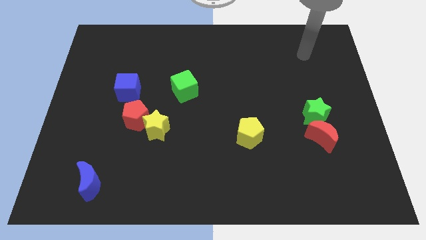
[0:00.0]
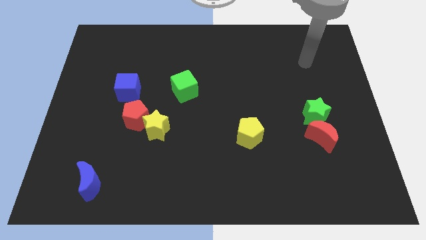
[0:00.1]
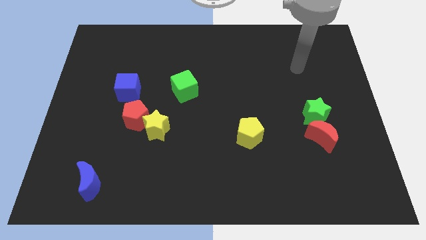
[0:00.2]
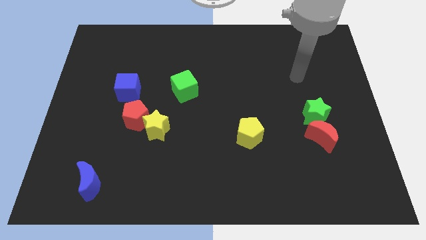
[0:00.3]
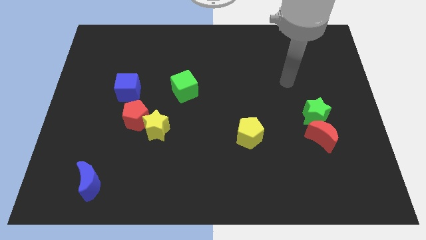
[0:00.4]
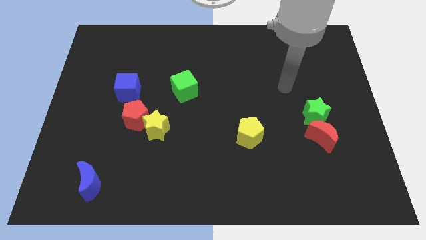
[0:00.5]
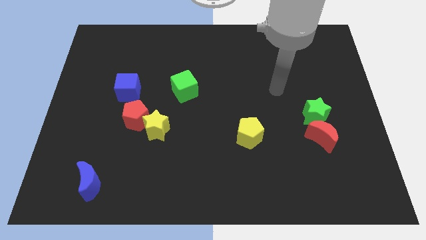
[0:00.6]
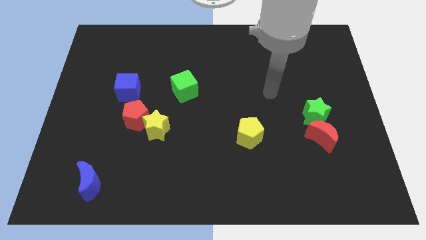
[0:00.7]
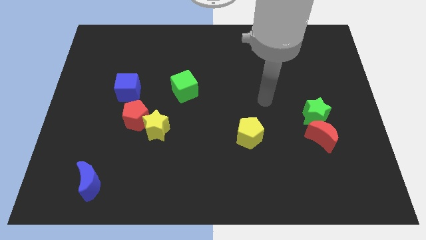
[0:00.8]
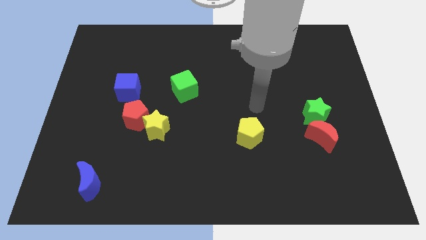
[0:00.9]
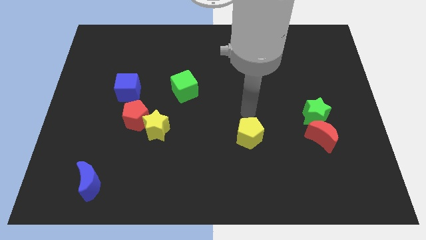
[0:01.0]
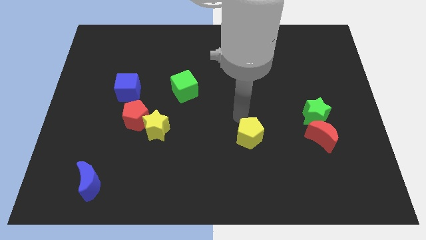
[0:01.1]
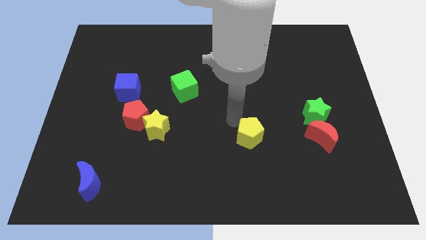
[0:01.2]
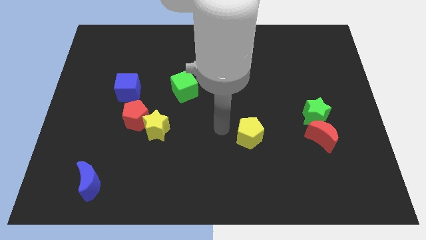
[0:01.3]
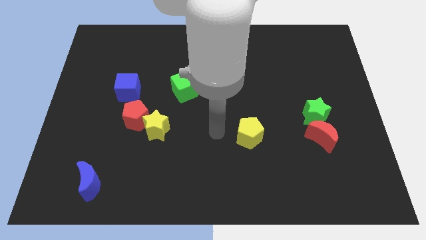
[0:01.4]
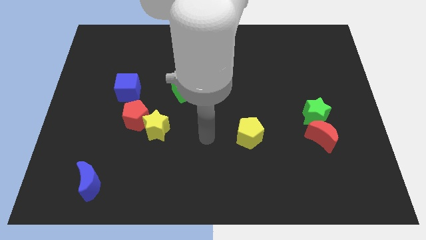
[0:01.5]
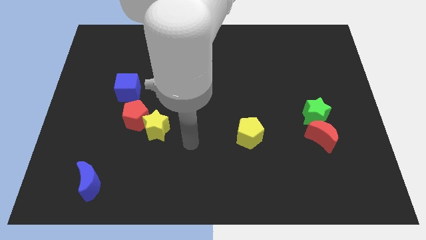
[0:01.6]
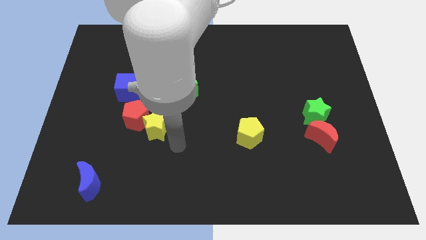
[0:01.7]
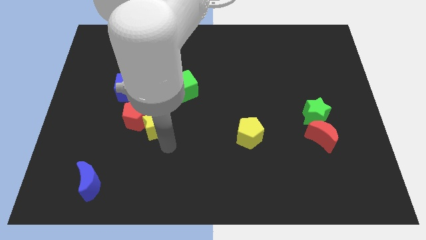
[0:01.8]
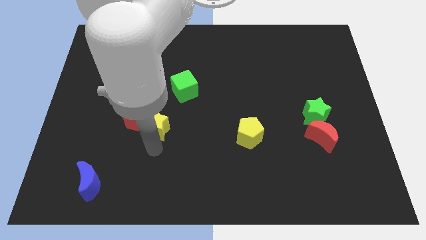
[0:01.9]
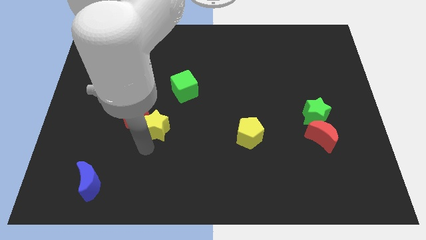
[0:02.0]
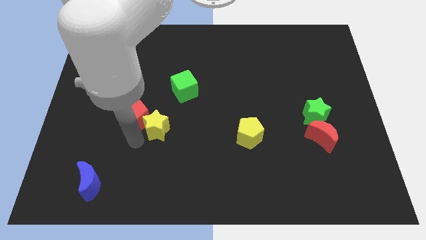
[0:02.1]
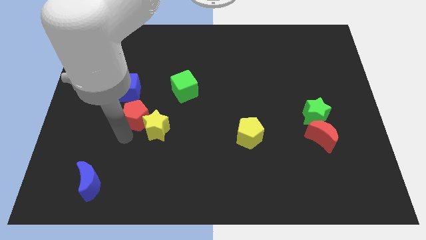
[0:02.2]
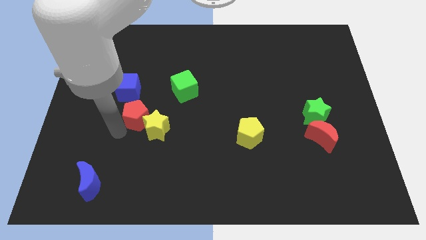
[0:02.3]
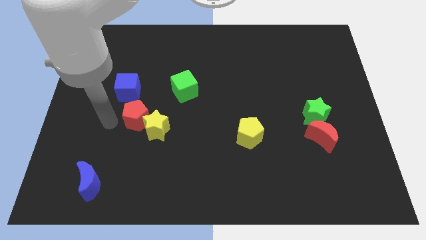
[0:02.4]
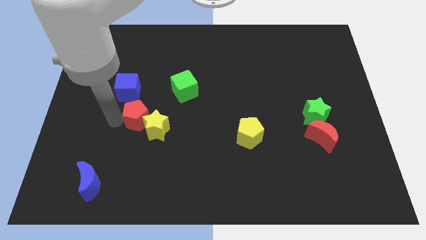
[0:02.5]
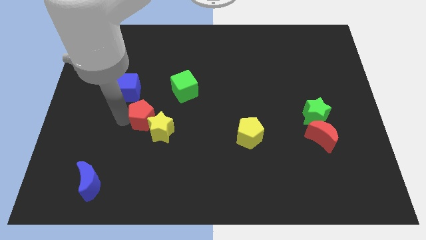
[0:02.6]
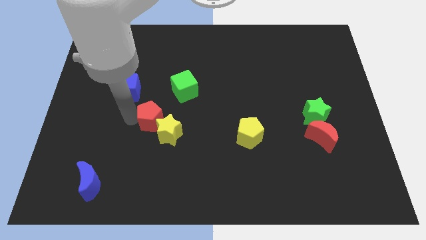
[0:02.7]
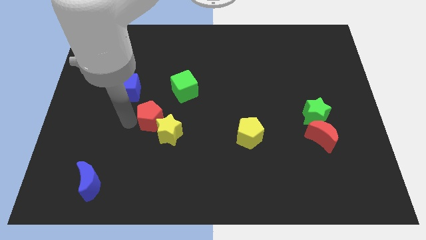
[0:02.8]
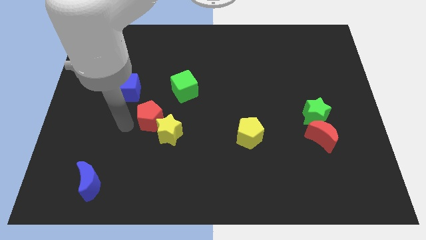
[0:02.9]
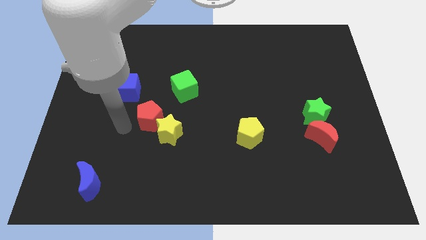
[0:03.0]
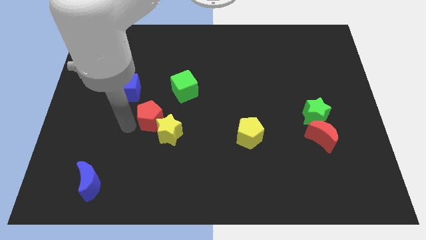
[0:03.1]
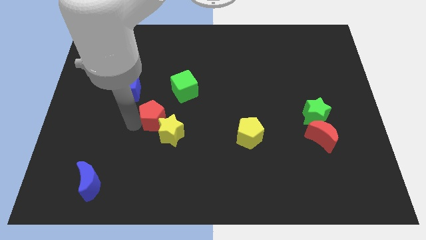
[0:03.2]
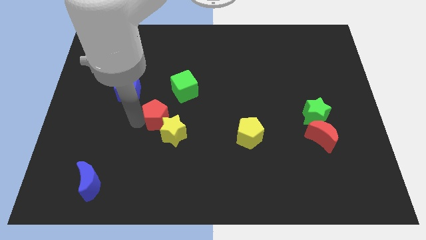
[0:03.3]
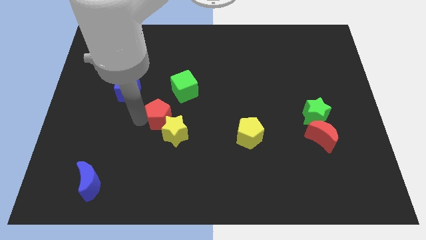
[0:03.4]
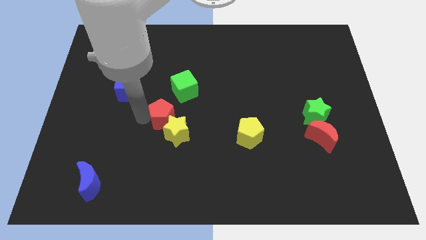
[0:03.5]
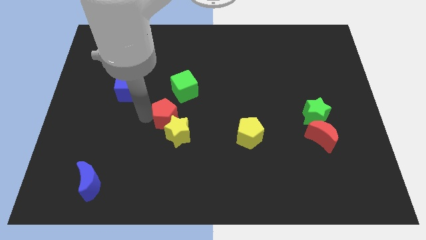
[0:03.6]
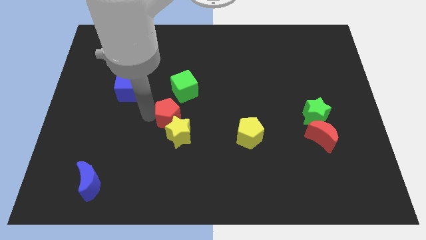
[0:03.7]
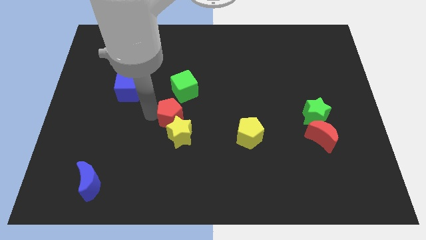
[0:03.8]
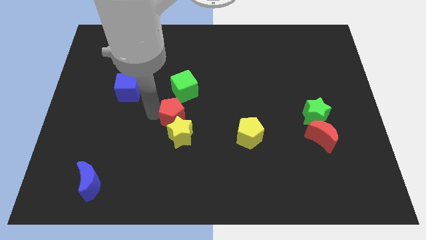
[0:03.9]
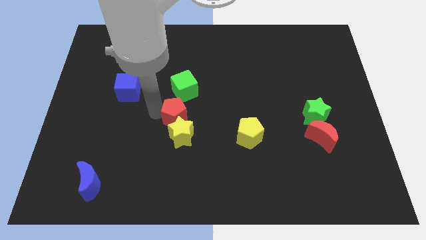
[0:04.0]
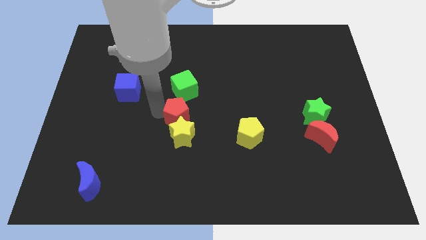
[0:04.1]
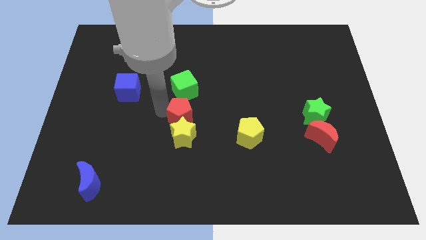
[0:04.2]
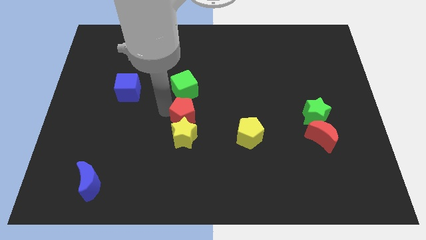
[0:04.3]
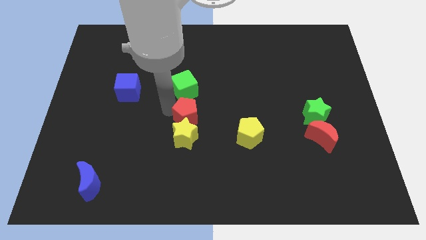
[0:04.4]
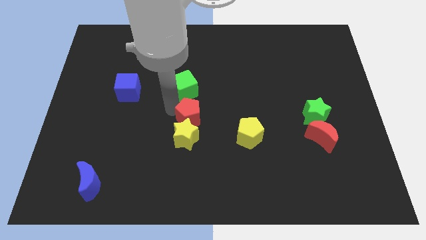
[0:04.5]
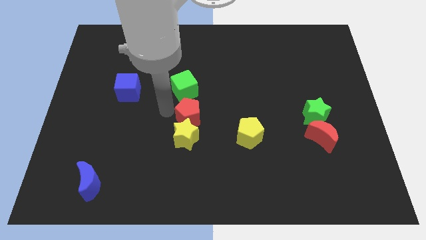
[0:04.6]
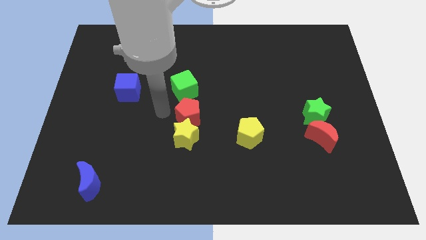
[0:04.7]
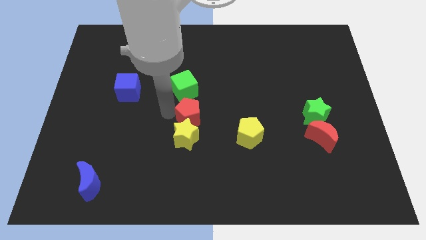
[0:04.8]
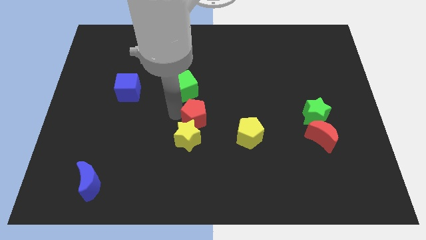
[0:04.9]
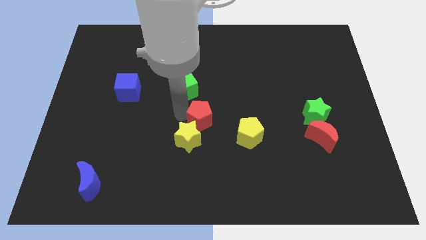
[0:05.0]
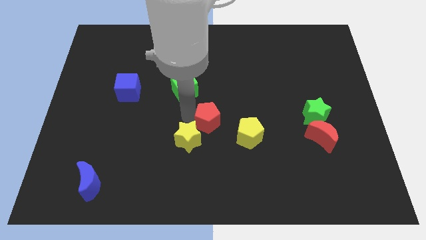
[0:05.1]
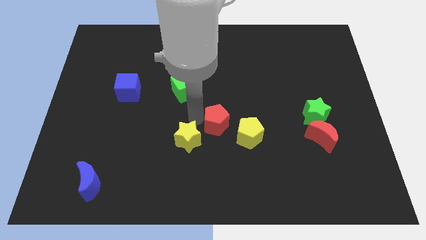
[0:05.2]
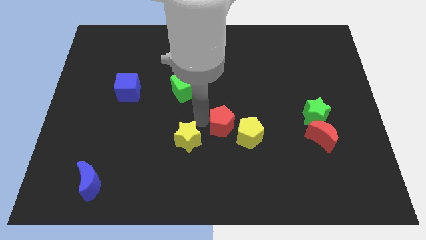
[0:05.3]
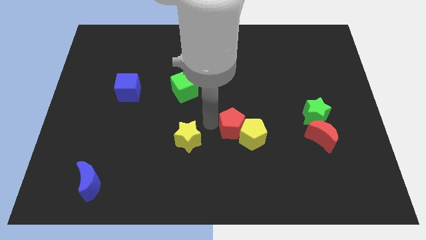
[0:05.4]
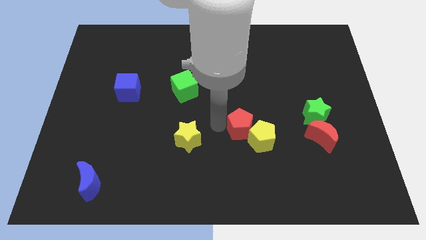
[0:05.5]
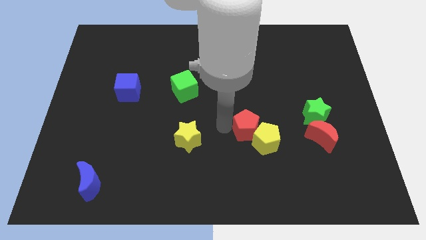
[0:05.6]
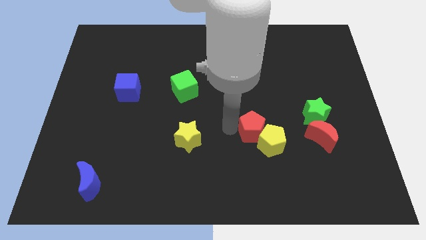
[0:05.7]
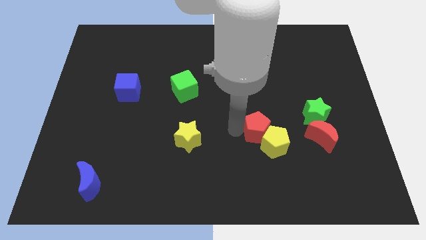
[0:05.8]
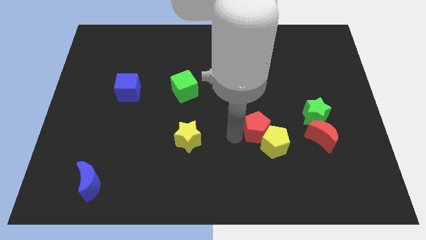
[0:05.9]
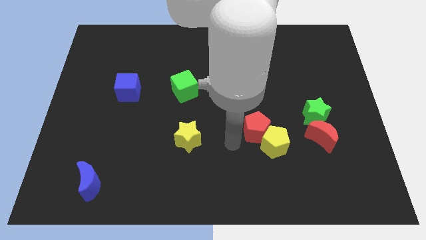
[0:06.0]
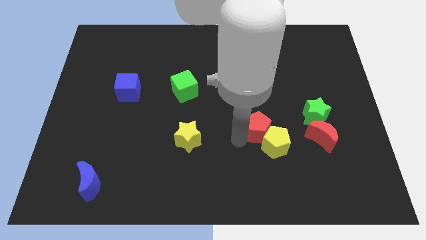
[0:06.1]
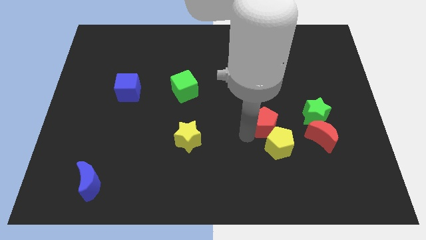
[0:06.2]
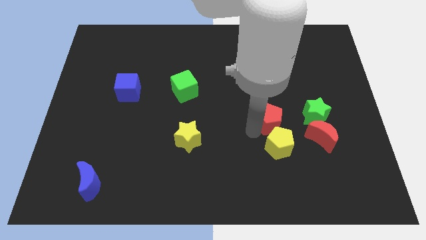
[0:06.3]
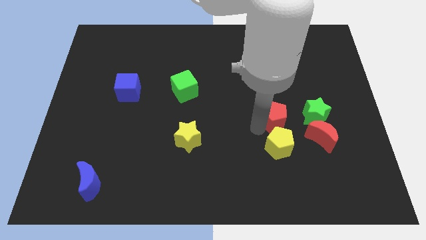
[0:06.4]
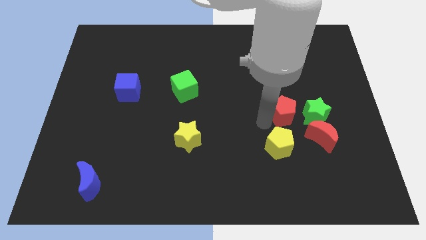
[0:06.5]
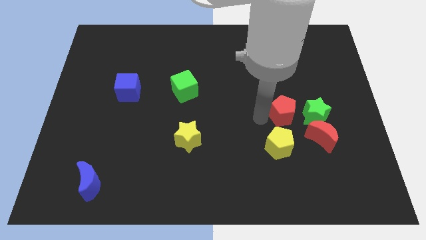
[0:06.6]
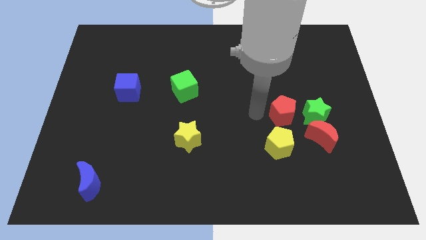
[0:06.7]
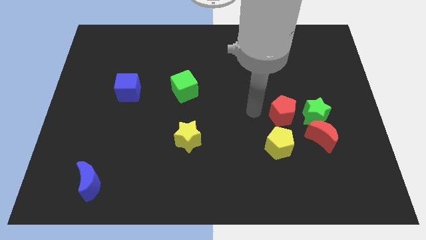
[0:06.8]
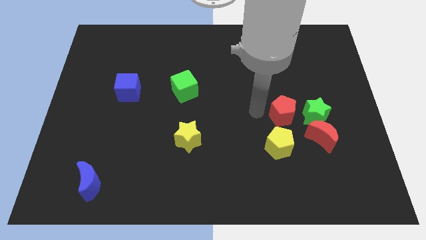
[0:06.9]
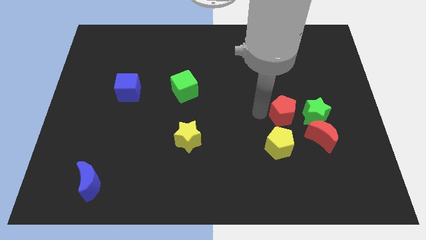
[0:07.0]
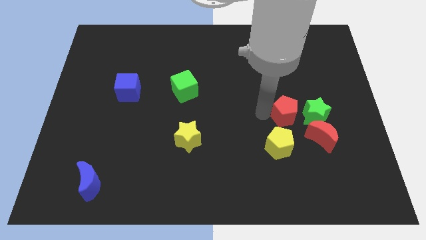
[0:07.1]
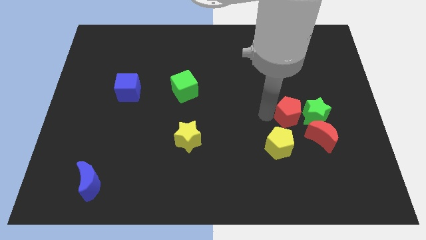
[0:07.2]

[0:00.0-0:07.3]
slide the red pentagon close to the green star
